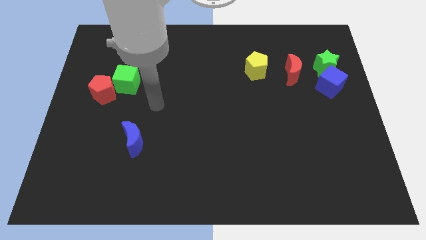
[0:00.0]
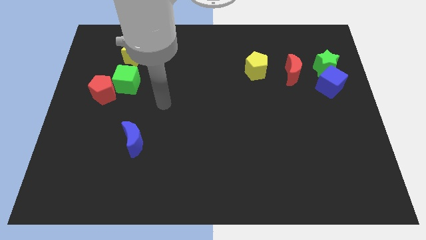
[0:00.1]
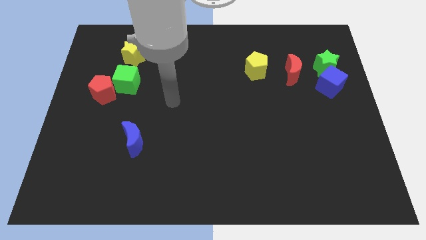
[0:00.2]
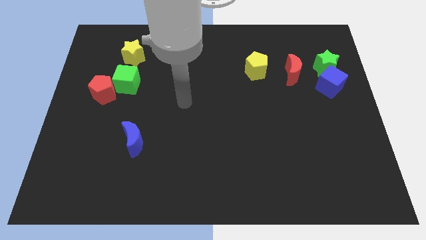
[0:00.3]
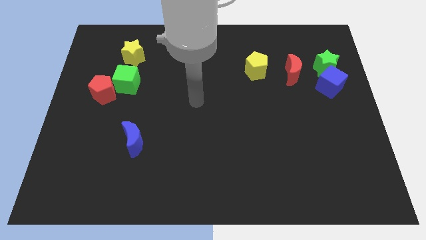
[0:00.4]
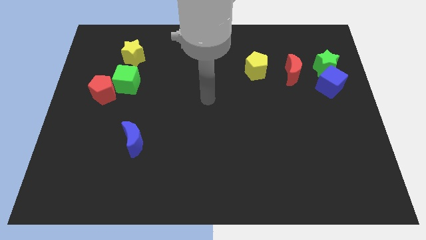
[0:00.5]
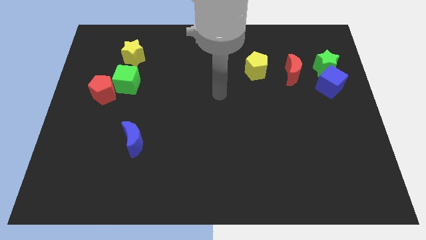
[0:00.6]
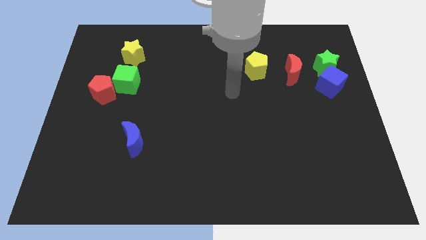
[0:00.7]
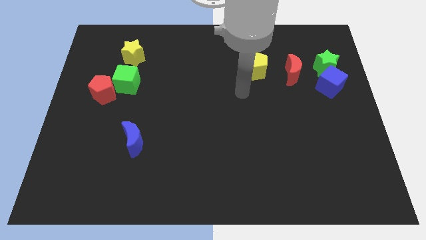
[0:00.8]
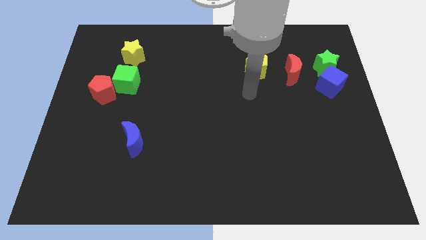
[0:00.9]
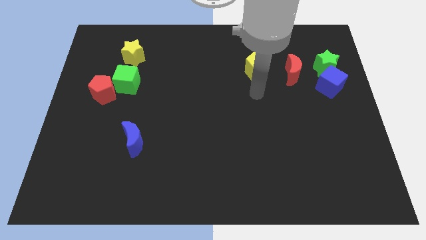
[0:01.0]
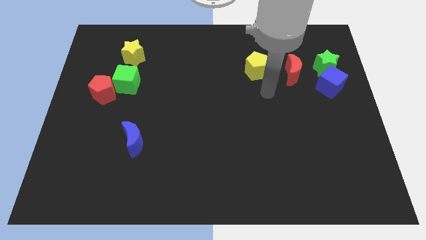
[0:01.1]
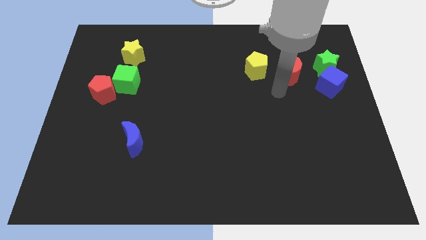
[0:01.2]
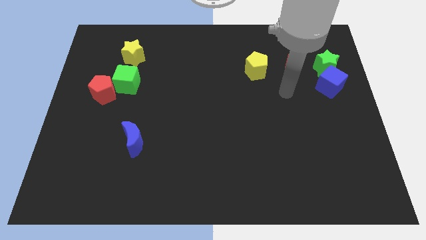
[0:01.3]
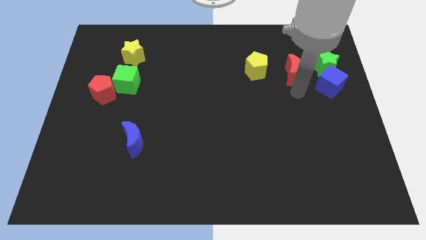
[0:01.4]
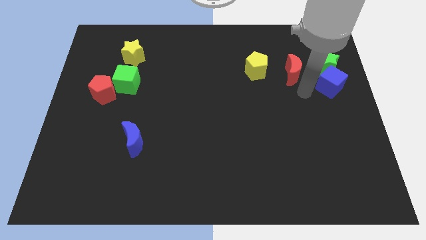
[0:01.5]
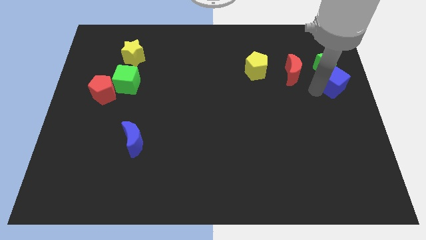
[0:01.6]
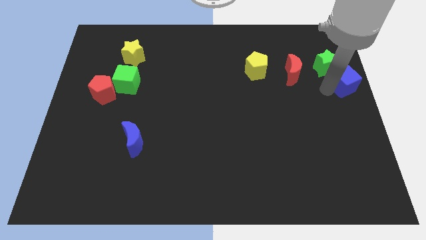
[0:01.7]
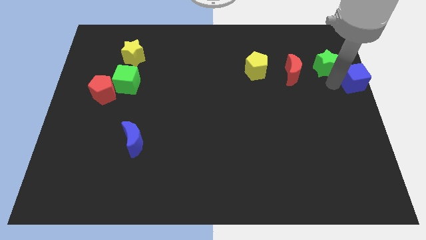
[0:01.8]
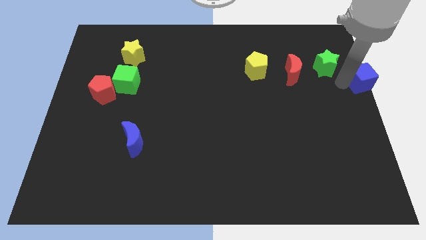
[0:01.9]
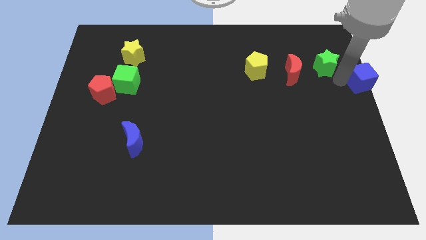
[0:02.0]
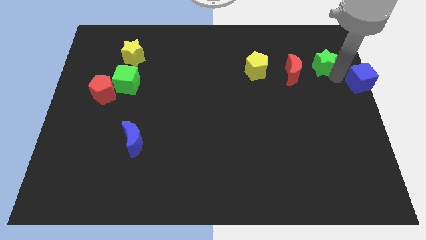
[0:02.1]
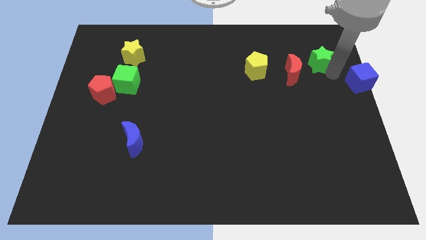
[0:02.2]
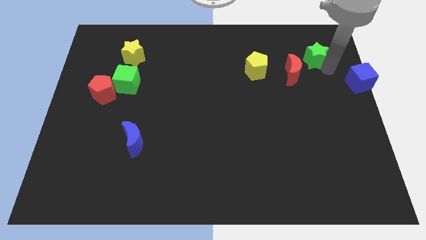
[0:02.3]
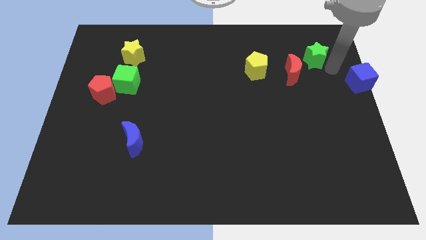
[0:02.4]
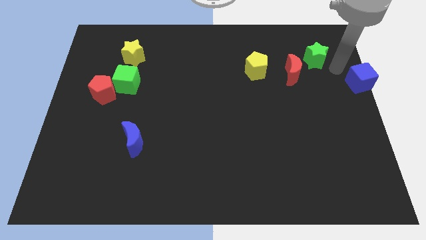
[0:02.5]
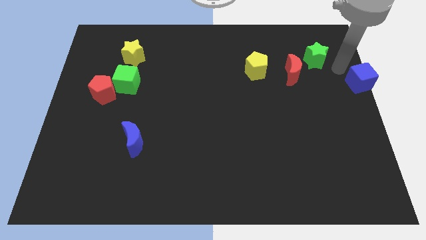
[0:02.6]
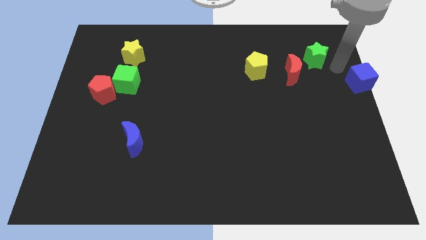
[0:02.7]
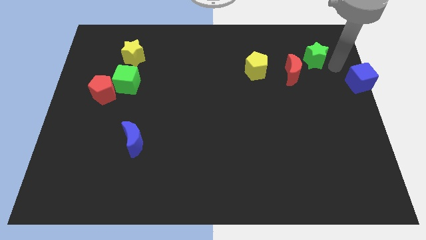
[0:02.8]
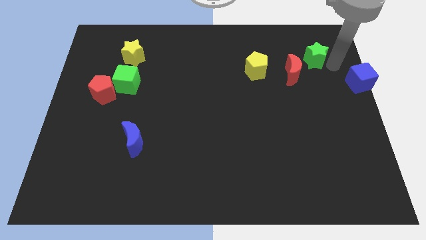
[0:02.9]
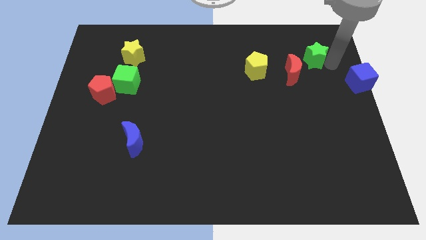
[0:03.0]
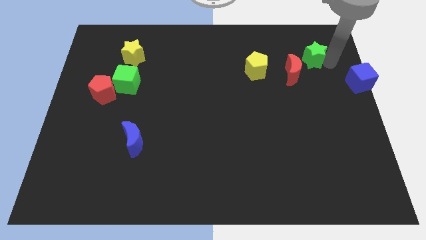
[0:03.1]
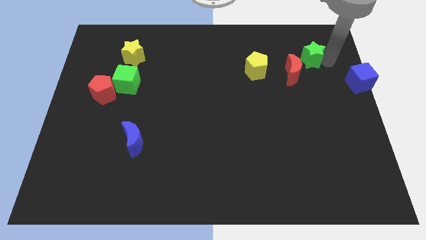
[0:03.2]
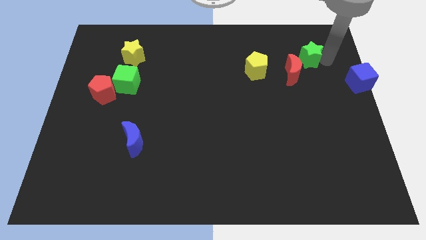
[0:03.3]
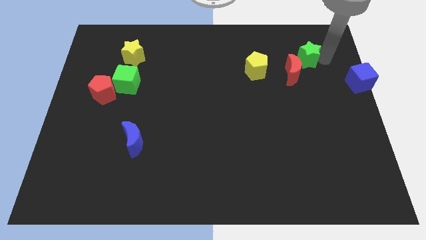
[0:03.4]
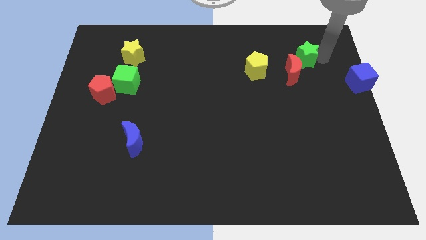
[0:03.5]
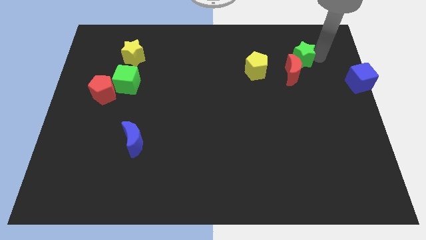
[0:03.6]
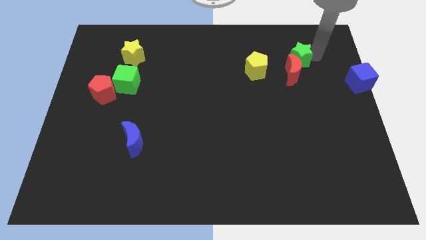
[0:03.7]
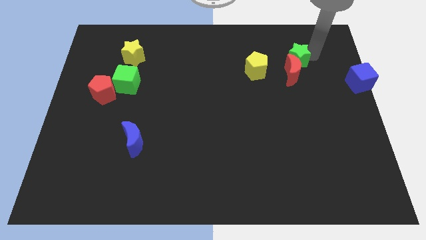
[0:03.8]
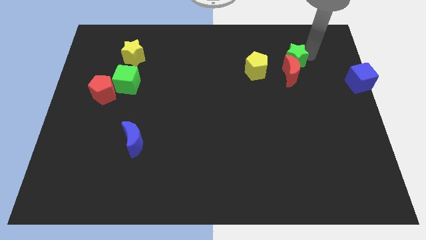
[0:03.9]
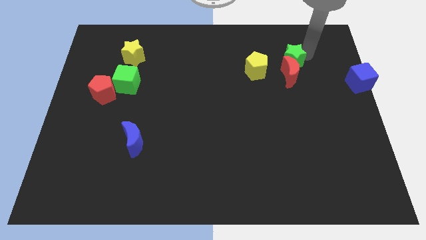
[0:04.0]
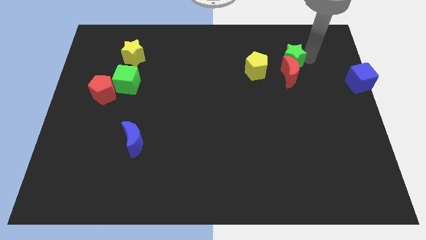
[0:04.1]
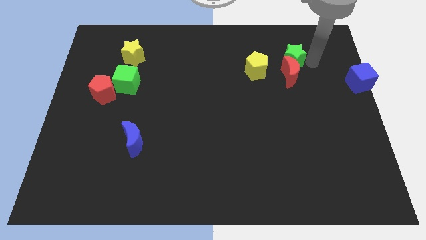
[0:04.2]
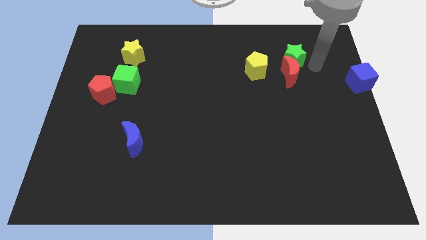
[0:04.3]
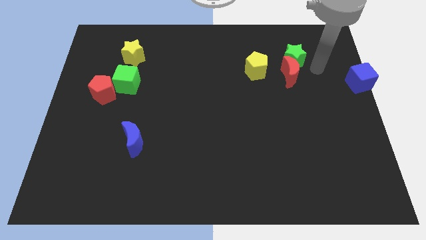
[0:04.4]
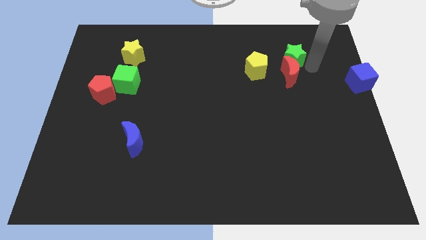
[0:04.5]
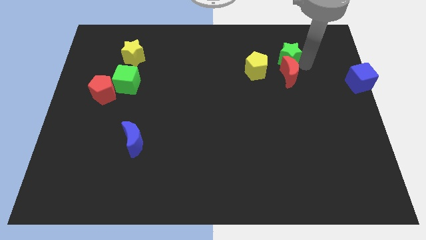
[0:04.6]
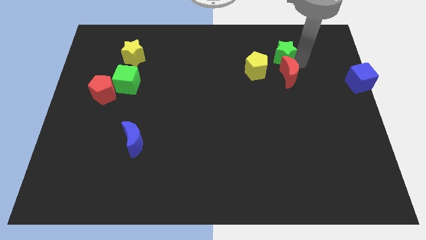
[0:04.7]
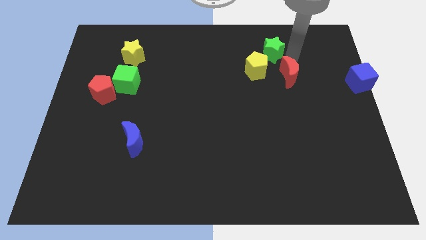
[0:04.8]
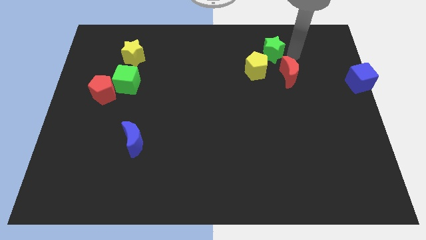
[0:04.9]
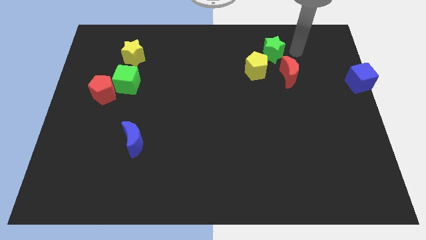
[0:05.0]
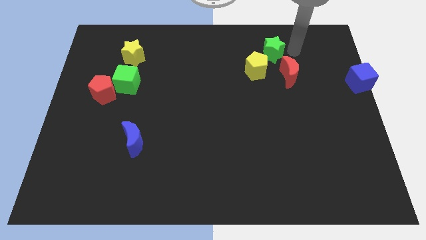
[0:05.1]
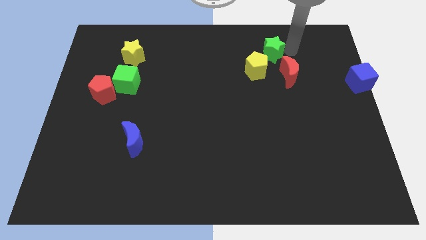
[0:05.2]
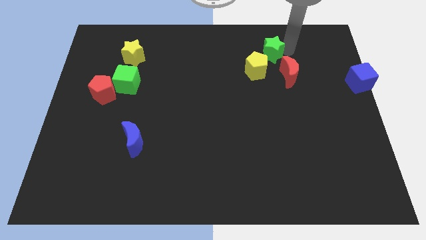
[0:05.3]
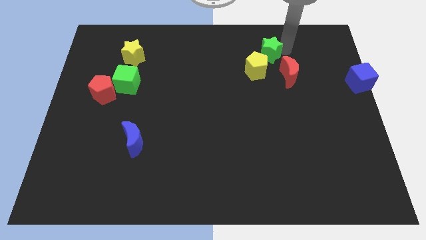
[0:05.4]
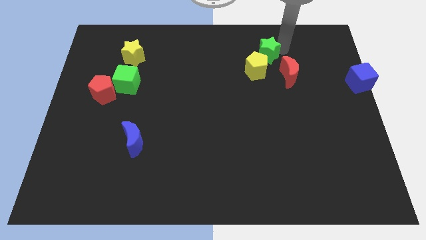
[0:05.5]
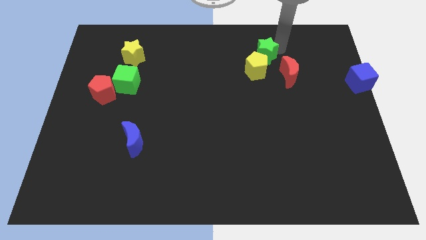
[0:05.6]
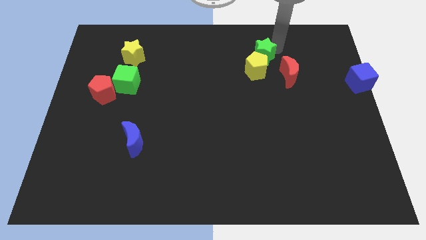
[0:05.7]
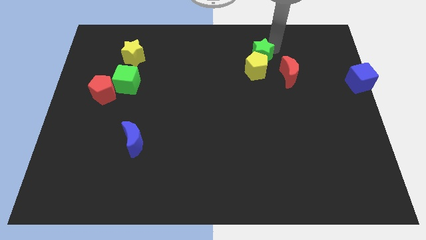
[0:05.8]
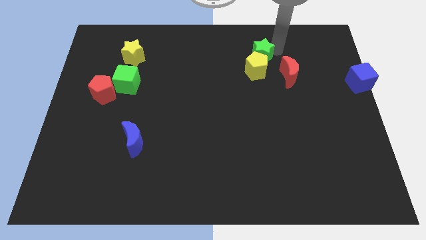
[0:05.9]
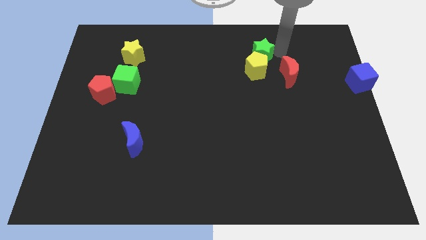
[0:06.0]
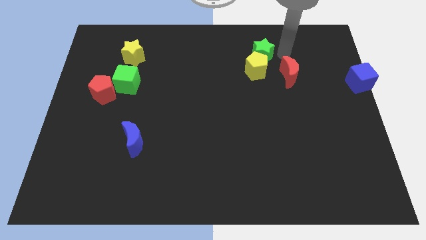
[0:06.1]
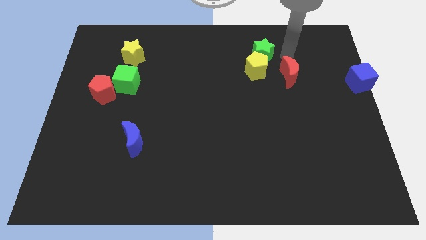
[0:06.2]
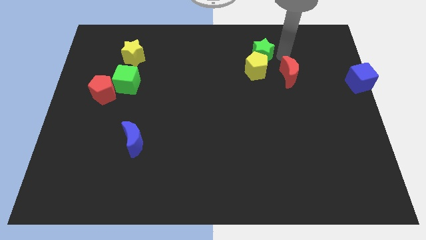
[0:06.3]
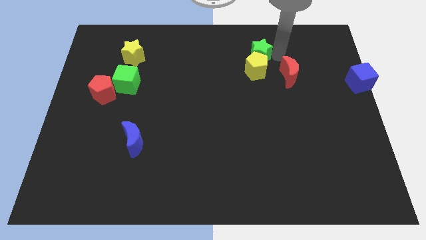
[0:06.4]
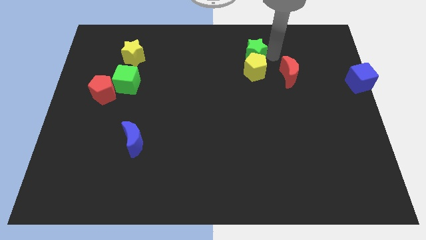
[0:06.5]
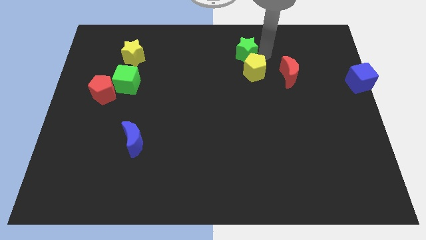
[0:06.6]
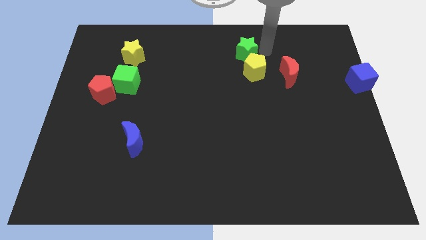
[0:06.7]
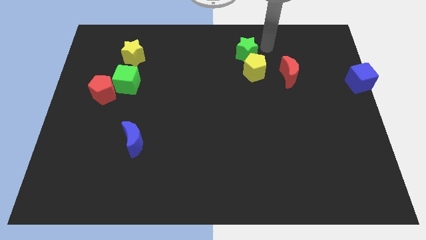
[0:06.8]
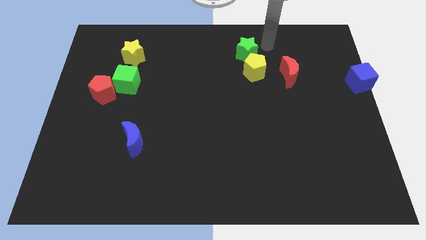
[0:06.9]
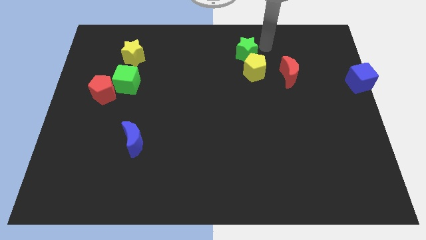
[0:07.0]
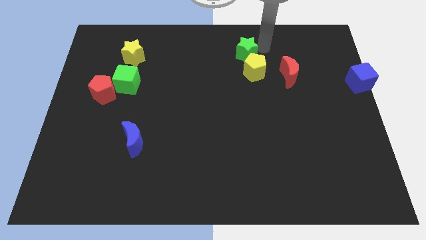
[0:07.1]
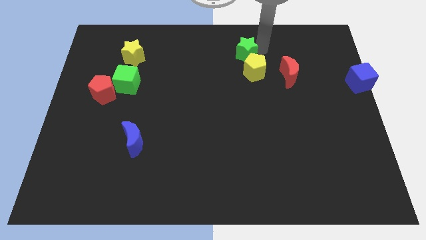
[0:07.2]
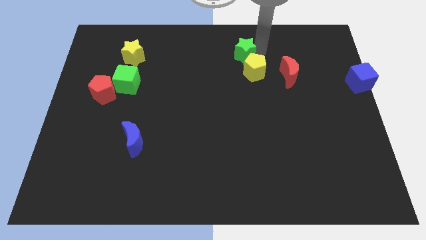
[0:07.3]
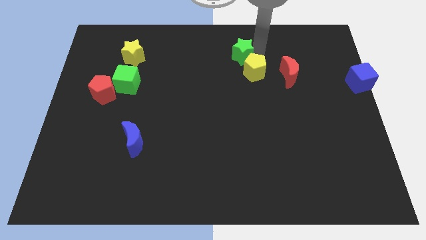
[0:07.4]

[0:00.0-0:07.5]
push the green star to the left

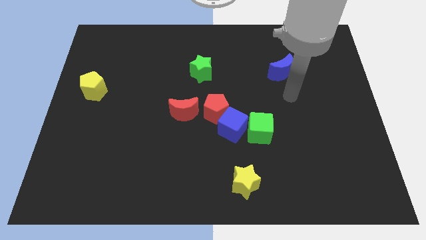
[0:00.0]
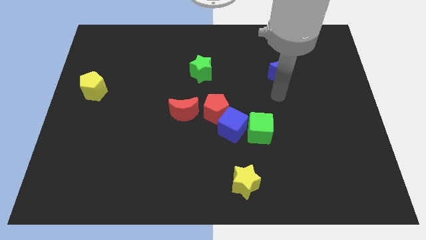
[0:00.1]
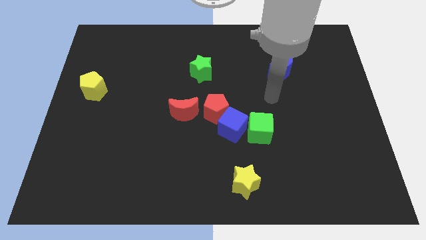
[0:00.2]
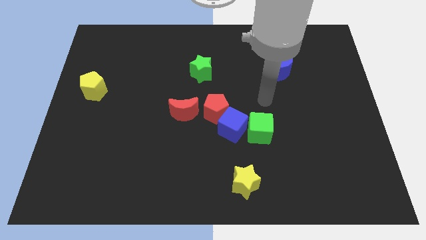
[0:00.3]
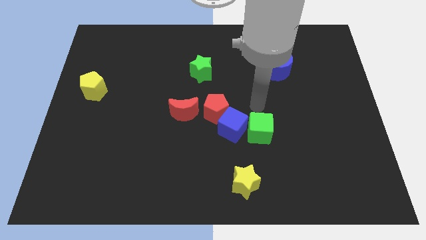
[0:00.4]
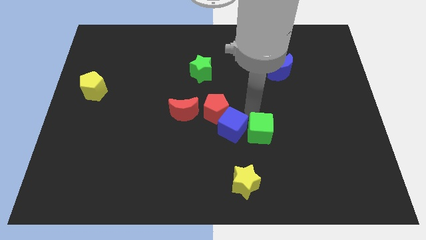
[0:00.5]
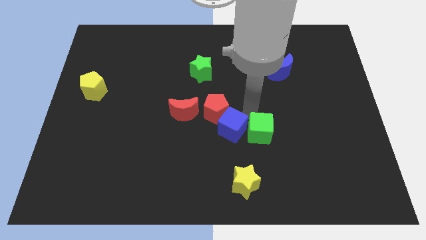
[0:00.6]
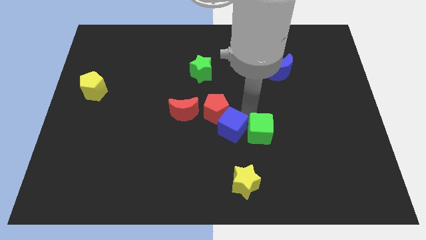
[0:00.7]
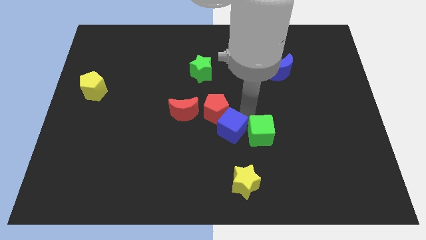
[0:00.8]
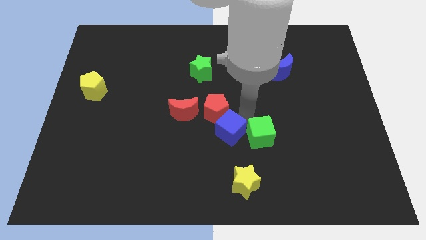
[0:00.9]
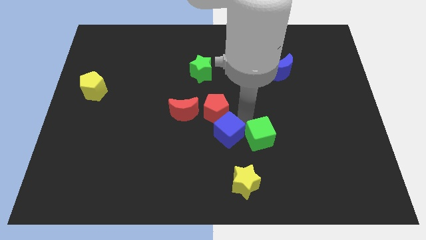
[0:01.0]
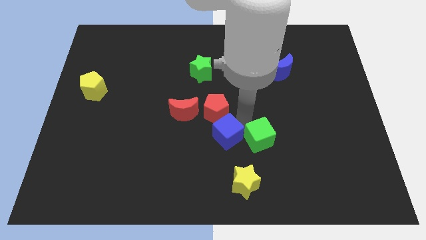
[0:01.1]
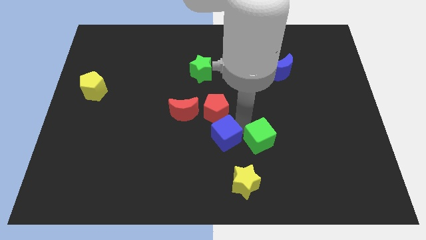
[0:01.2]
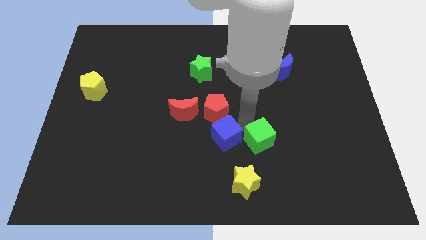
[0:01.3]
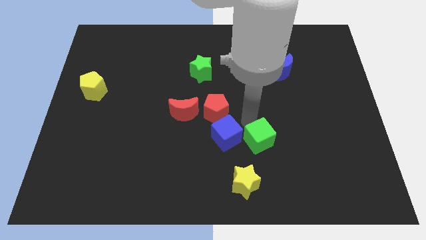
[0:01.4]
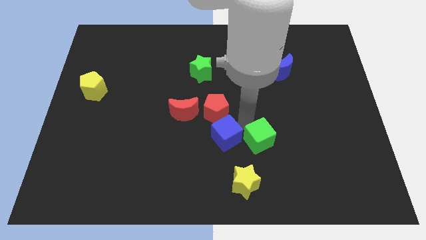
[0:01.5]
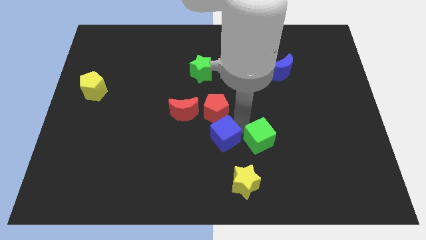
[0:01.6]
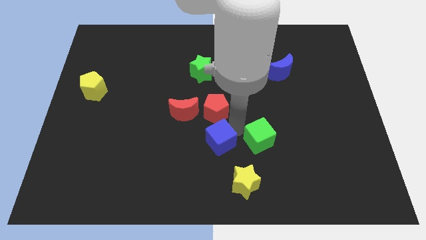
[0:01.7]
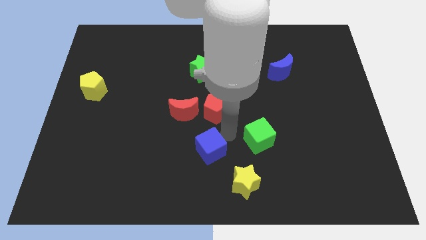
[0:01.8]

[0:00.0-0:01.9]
move the blue cube down and to the left diagonally a little bit
